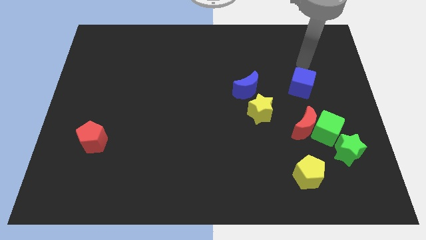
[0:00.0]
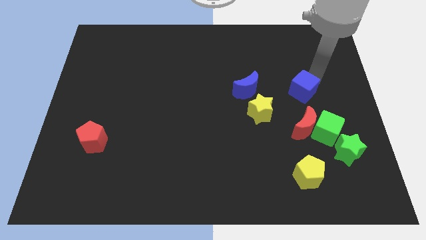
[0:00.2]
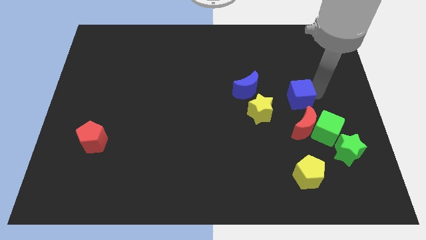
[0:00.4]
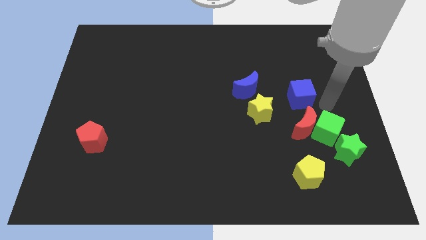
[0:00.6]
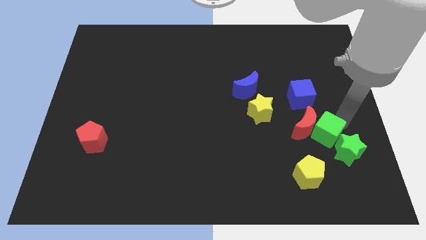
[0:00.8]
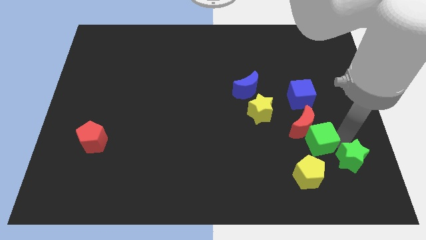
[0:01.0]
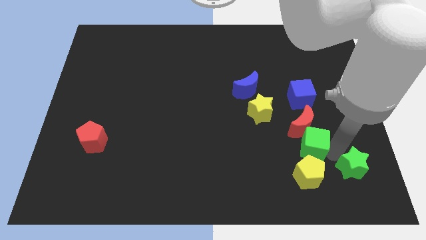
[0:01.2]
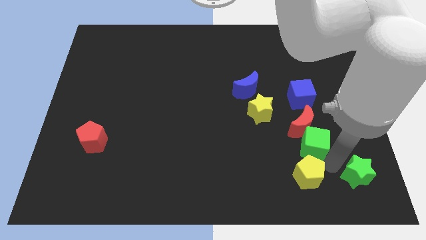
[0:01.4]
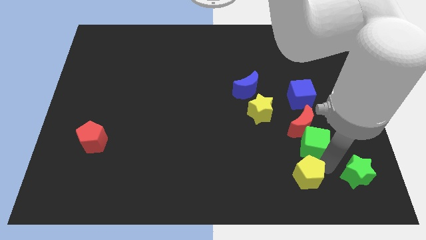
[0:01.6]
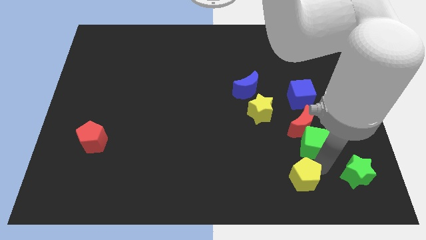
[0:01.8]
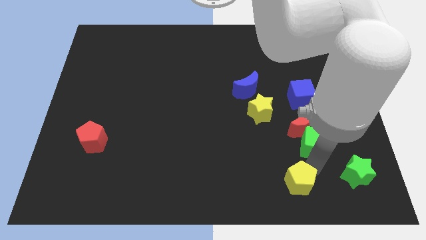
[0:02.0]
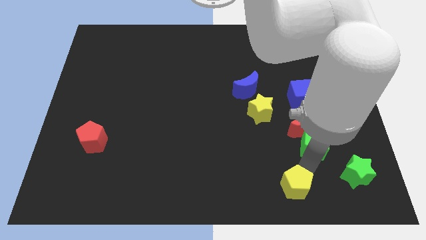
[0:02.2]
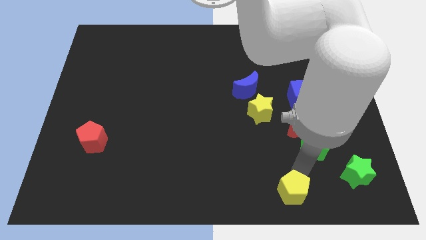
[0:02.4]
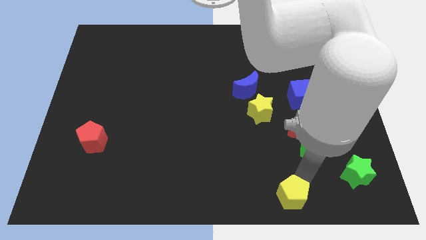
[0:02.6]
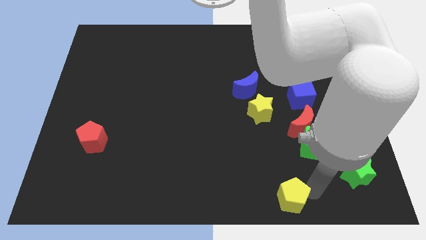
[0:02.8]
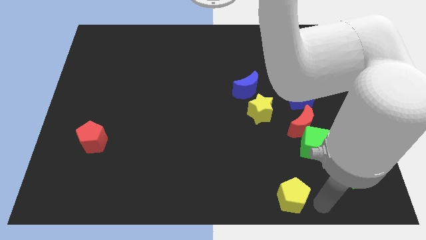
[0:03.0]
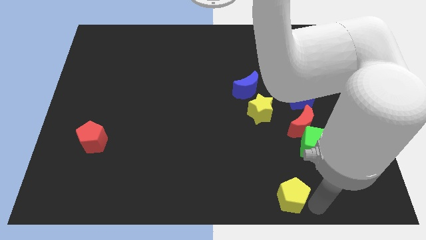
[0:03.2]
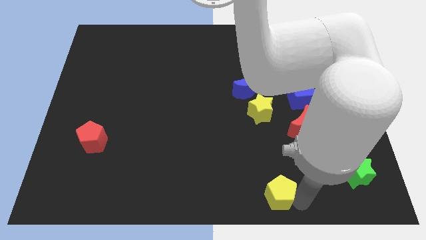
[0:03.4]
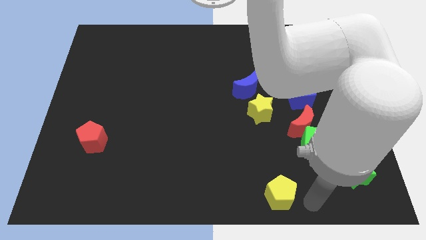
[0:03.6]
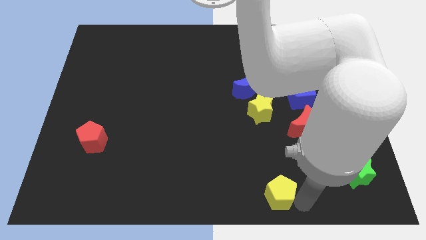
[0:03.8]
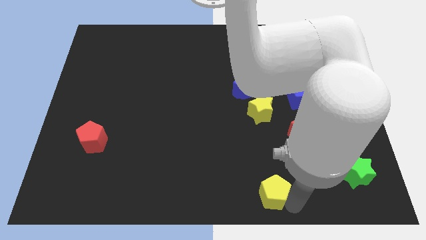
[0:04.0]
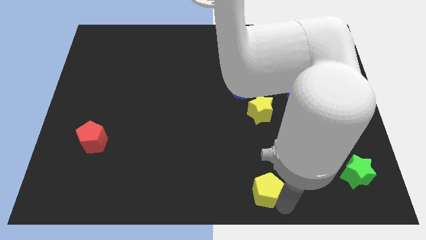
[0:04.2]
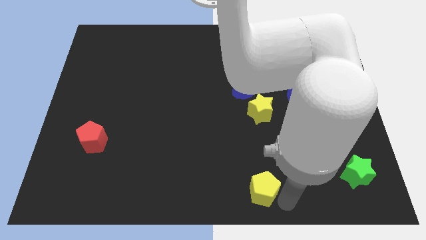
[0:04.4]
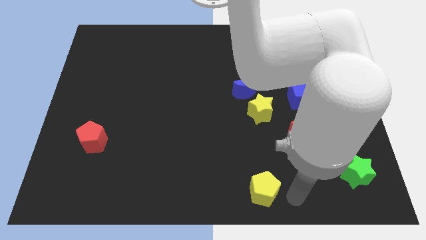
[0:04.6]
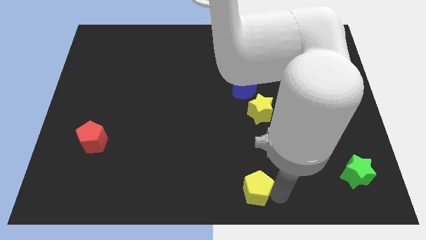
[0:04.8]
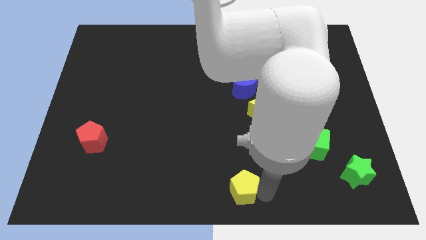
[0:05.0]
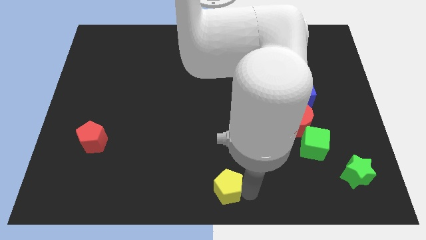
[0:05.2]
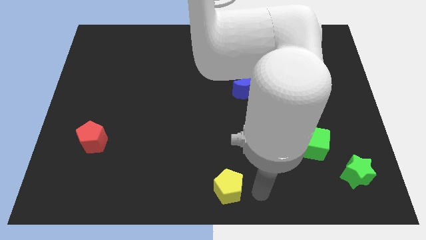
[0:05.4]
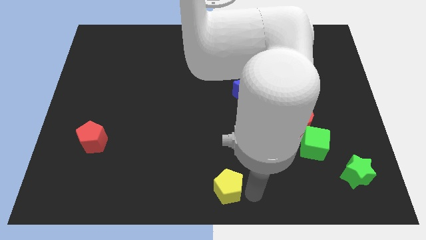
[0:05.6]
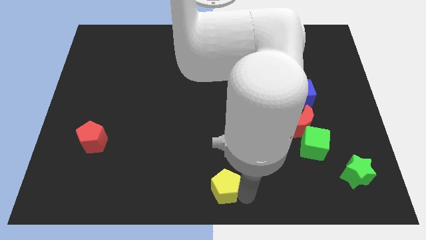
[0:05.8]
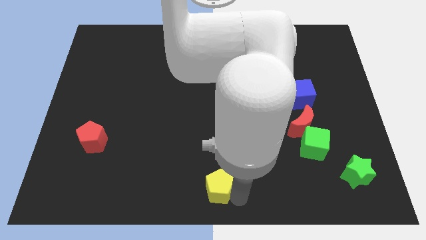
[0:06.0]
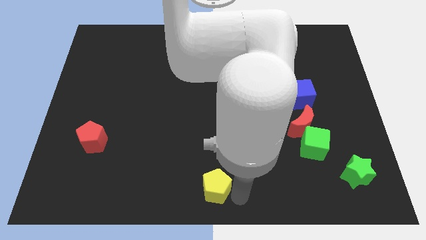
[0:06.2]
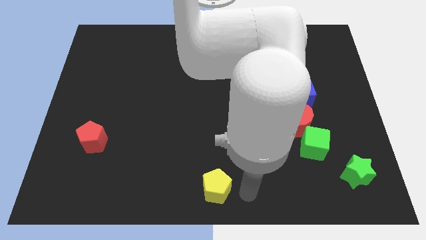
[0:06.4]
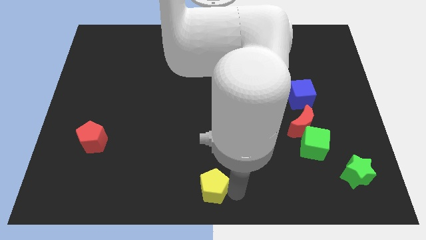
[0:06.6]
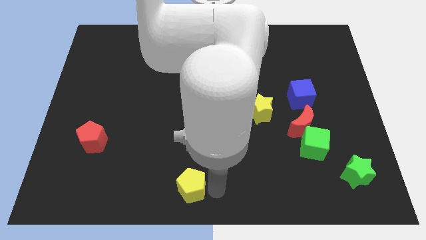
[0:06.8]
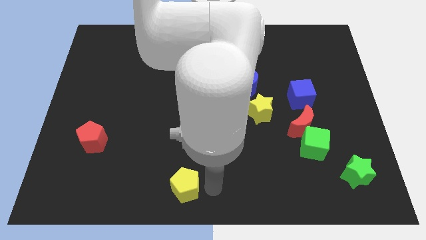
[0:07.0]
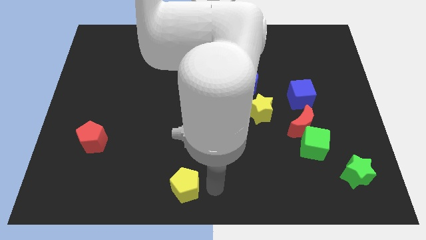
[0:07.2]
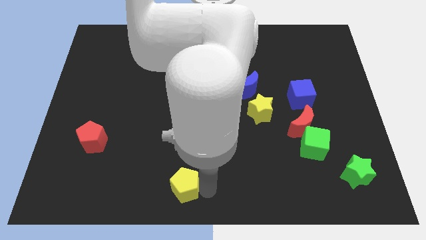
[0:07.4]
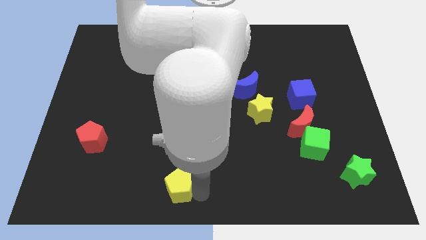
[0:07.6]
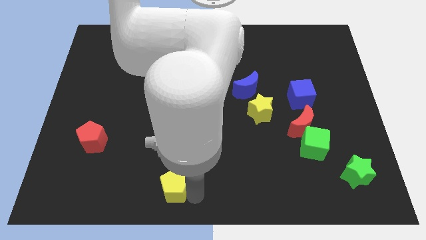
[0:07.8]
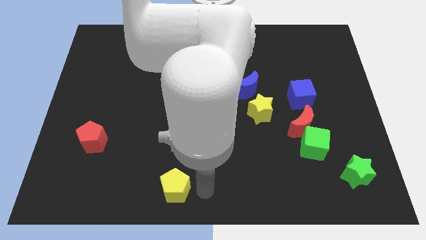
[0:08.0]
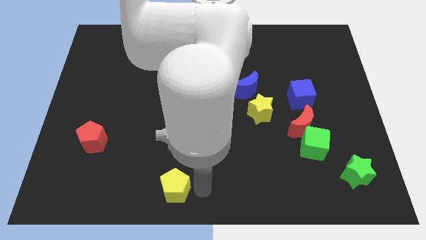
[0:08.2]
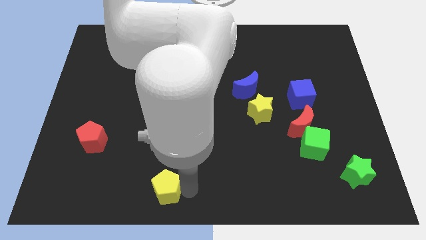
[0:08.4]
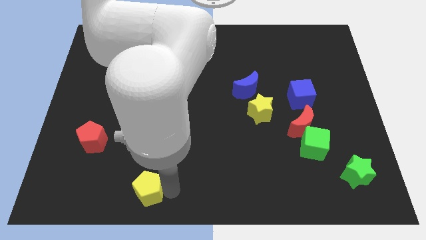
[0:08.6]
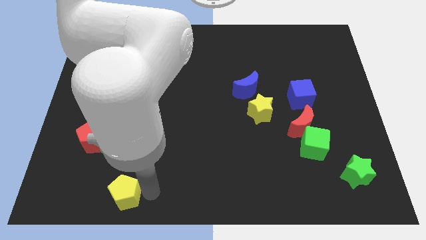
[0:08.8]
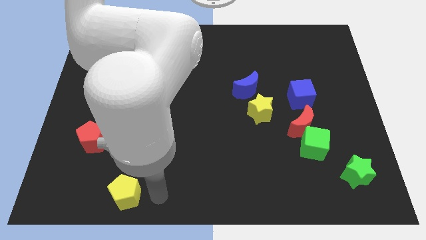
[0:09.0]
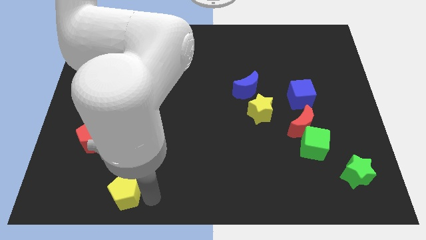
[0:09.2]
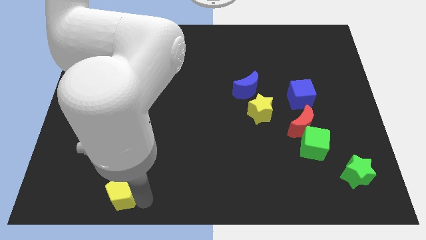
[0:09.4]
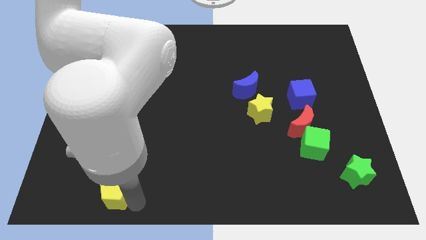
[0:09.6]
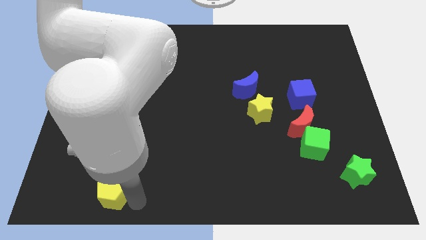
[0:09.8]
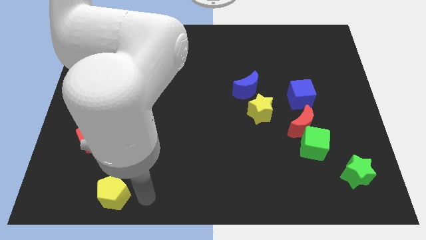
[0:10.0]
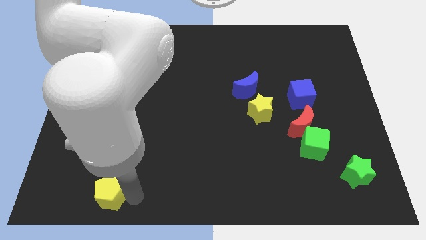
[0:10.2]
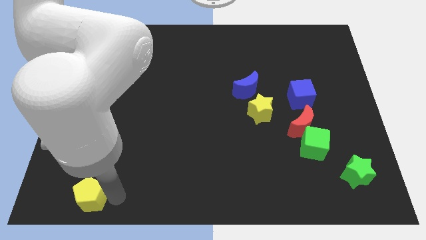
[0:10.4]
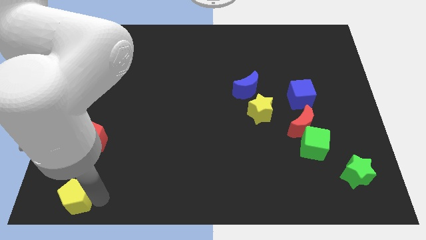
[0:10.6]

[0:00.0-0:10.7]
put the yellow pentagon to the bottom left of the board
